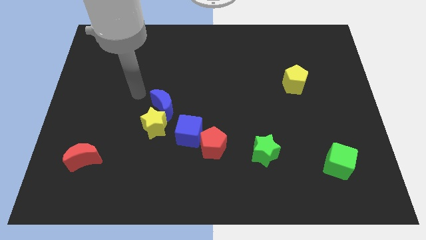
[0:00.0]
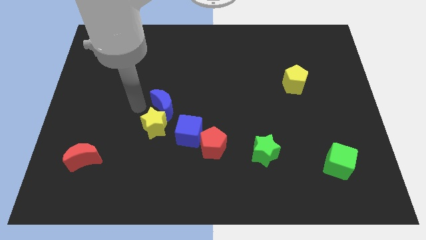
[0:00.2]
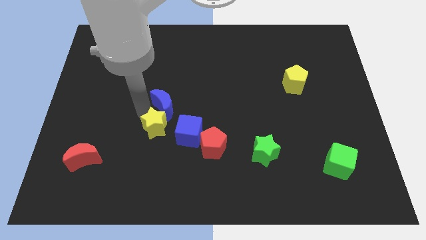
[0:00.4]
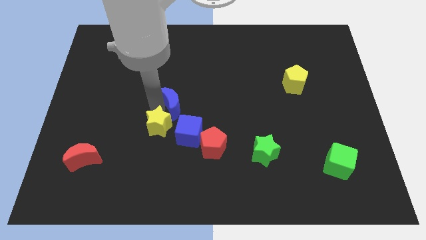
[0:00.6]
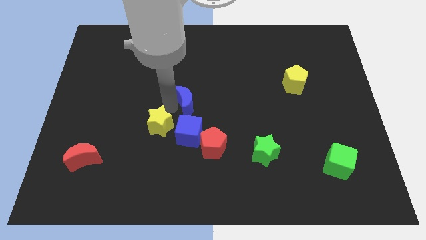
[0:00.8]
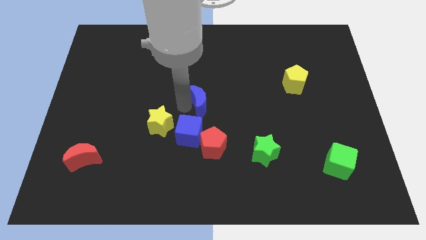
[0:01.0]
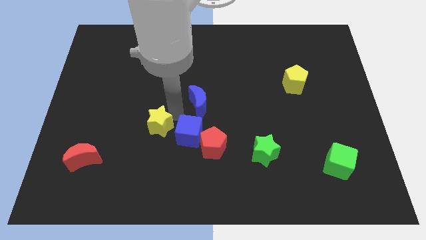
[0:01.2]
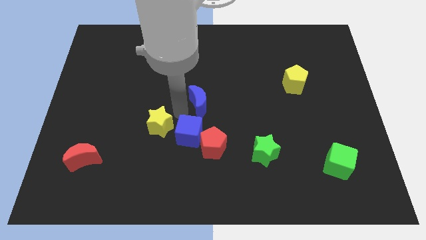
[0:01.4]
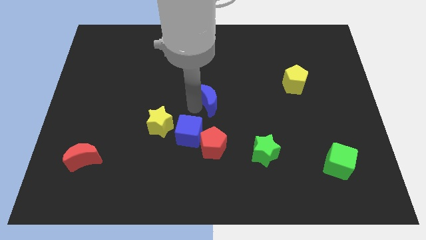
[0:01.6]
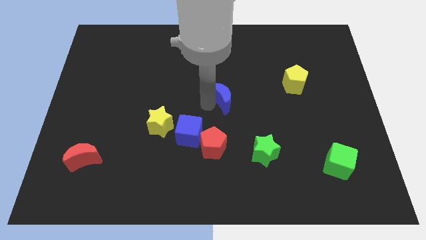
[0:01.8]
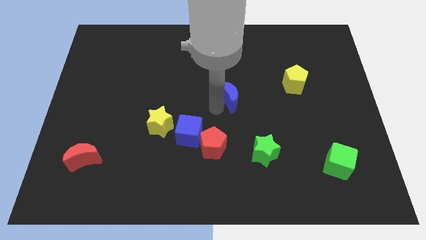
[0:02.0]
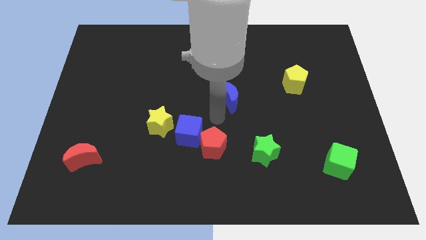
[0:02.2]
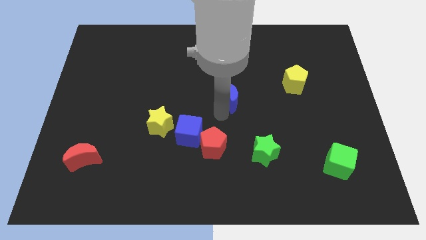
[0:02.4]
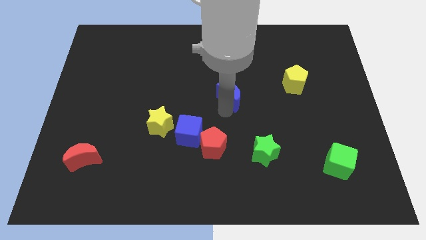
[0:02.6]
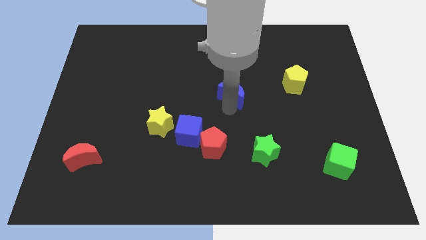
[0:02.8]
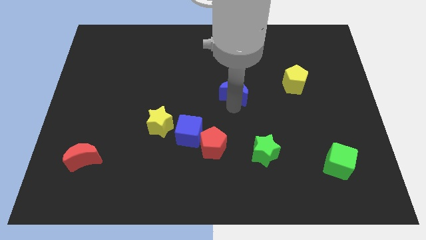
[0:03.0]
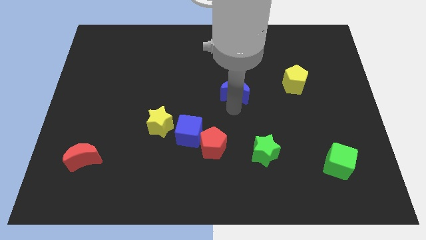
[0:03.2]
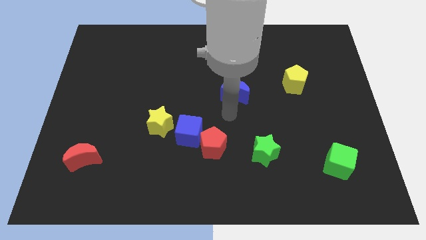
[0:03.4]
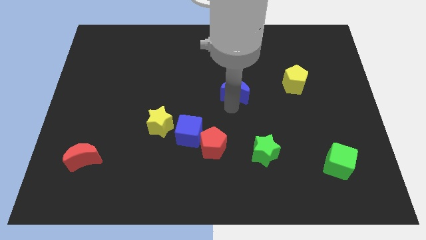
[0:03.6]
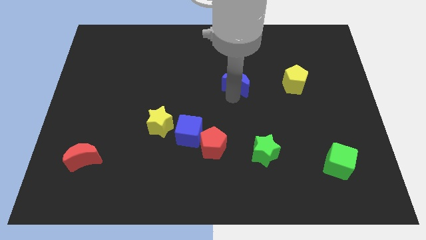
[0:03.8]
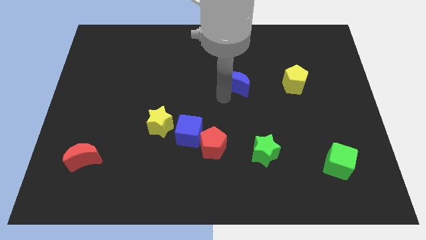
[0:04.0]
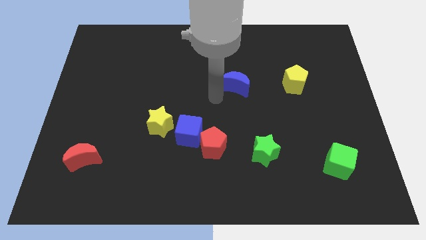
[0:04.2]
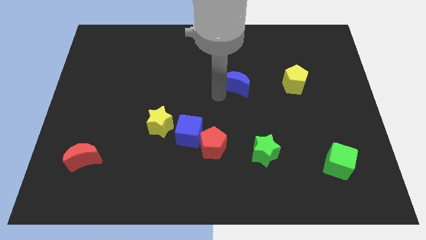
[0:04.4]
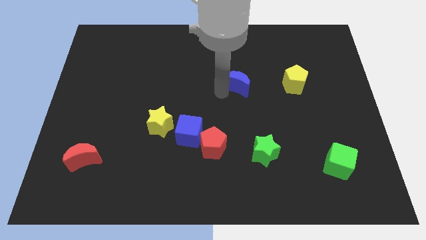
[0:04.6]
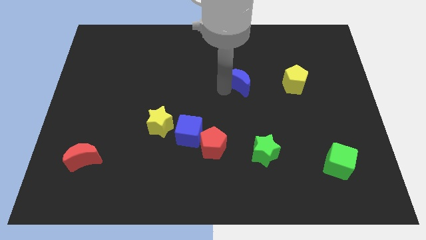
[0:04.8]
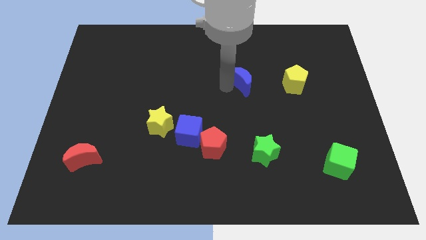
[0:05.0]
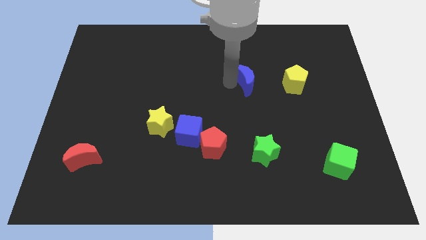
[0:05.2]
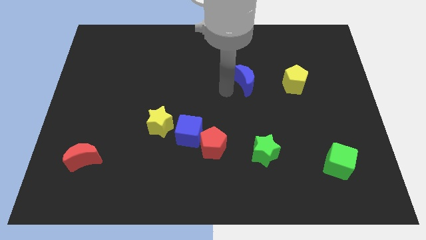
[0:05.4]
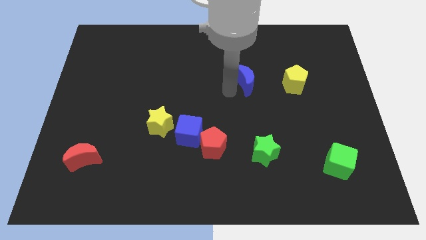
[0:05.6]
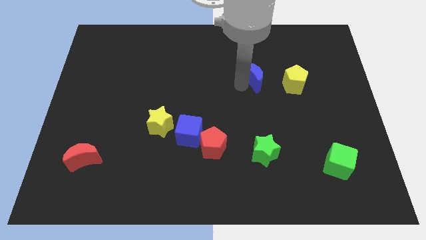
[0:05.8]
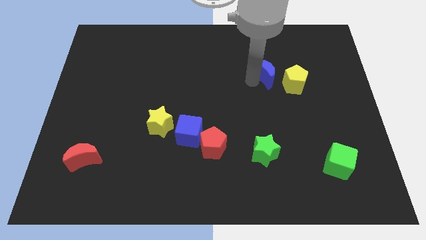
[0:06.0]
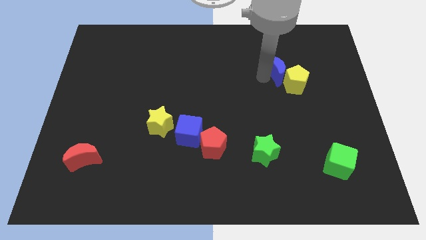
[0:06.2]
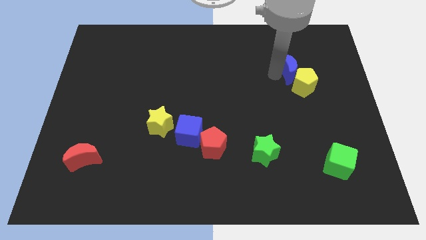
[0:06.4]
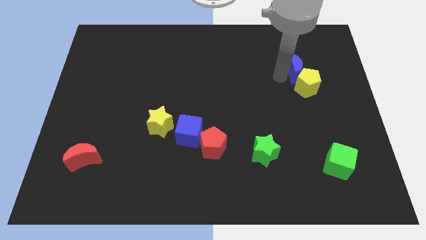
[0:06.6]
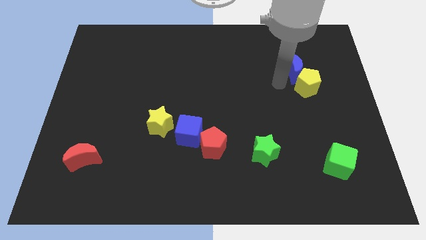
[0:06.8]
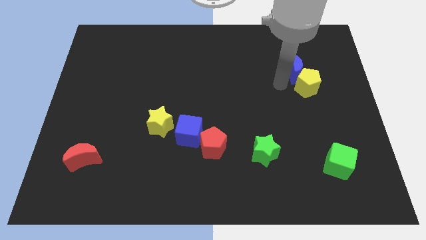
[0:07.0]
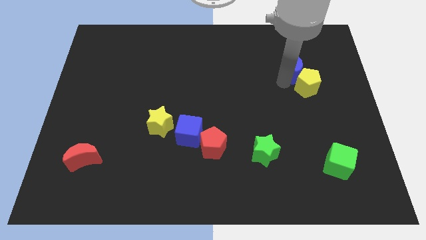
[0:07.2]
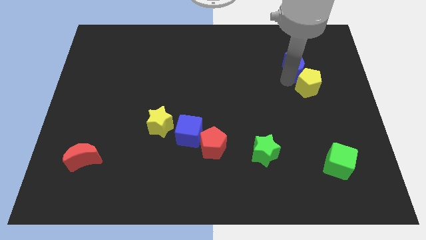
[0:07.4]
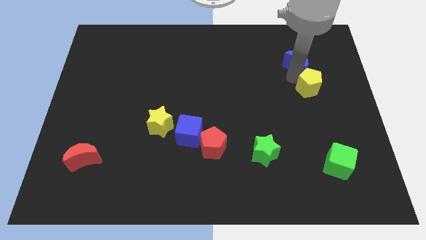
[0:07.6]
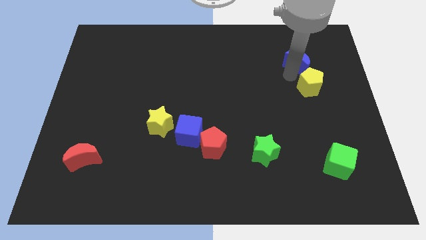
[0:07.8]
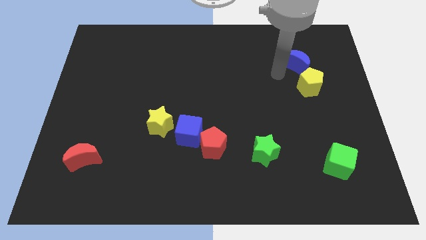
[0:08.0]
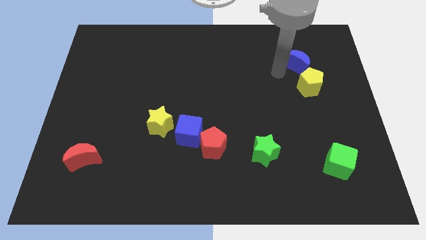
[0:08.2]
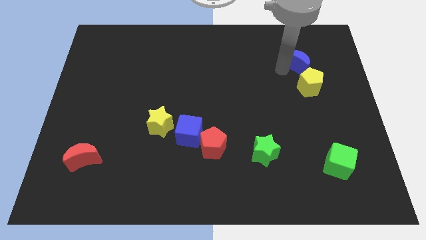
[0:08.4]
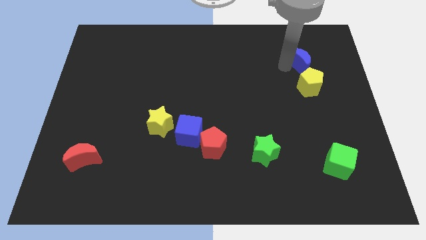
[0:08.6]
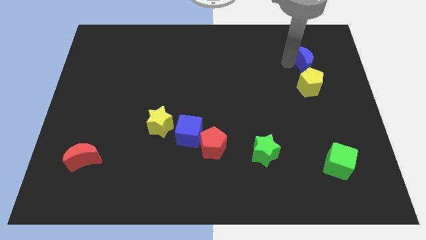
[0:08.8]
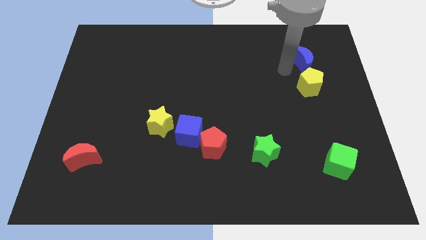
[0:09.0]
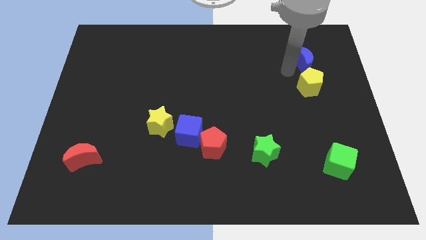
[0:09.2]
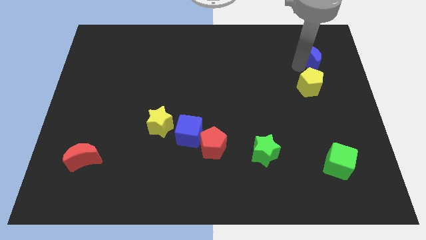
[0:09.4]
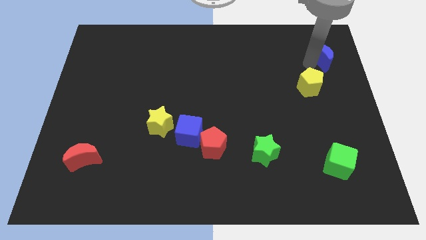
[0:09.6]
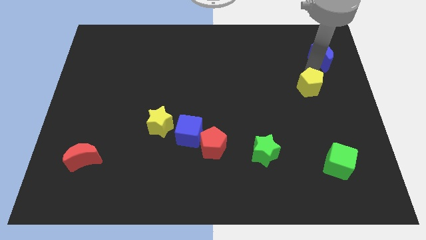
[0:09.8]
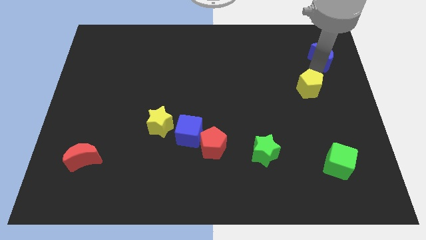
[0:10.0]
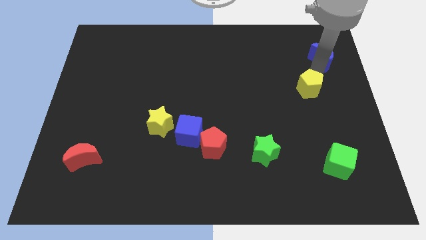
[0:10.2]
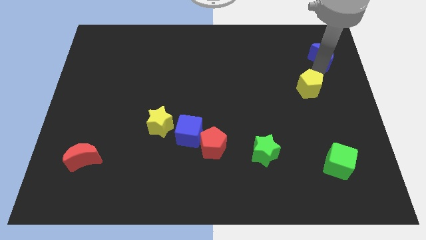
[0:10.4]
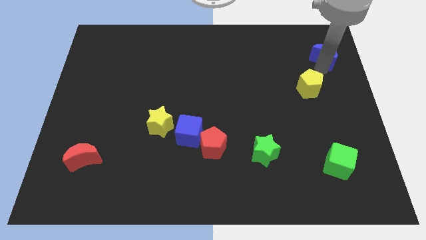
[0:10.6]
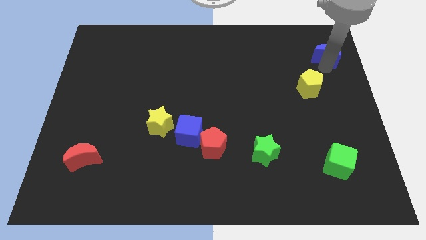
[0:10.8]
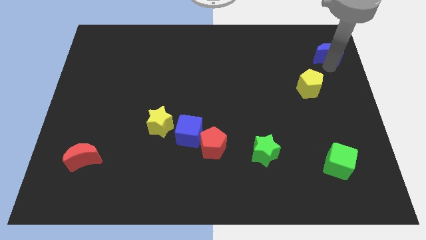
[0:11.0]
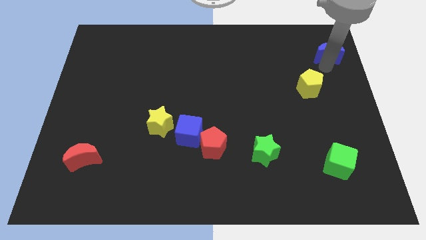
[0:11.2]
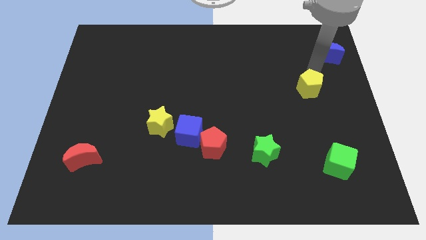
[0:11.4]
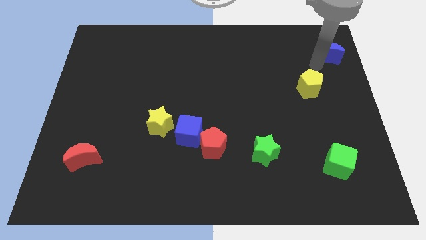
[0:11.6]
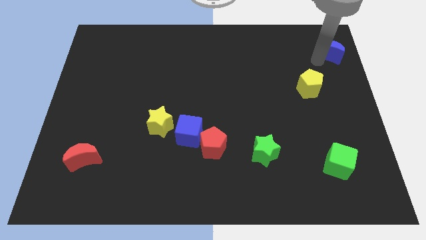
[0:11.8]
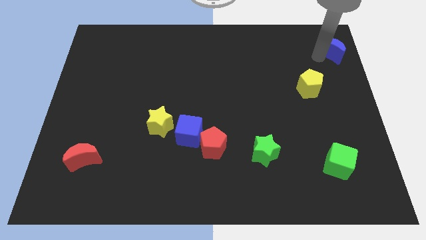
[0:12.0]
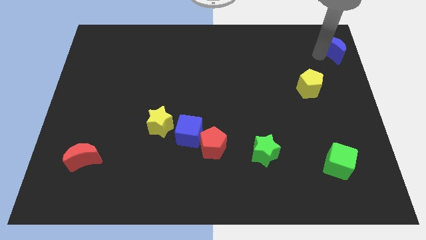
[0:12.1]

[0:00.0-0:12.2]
slide the blue moon to the top right
